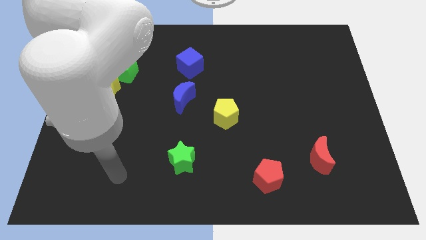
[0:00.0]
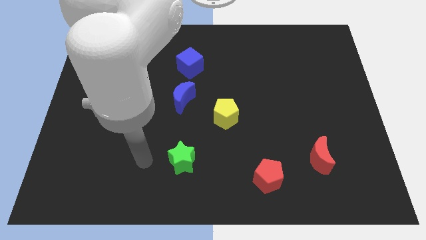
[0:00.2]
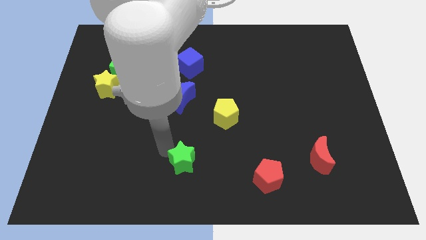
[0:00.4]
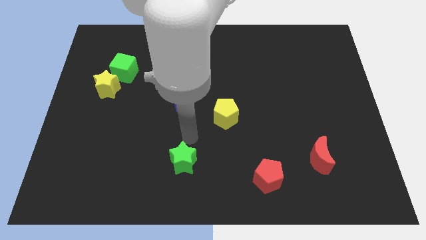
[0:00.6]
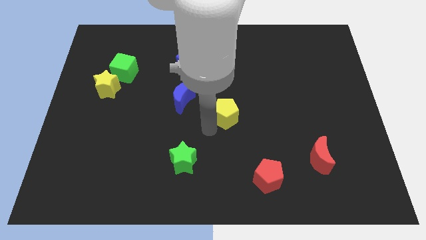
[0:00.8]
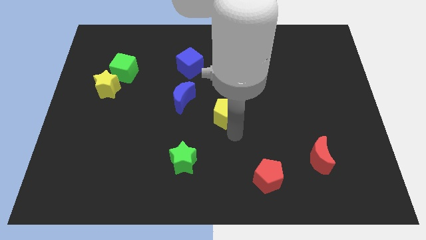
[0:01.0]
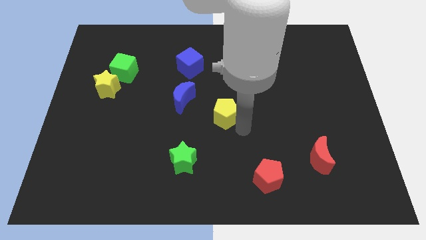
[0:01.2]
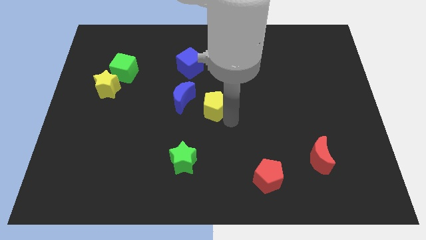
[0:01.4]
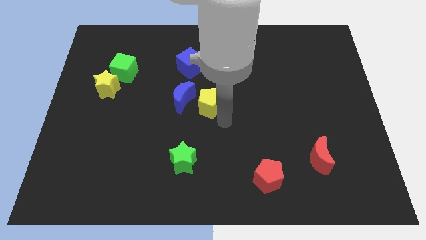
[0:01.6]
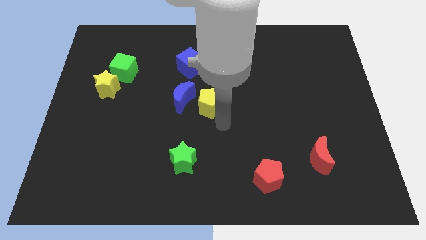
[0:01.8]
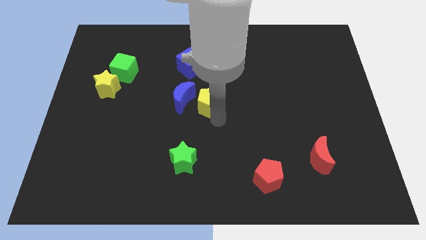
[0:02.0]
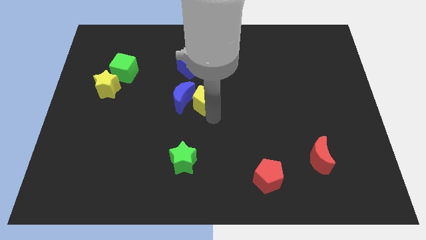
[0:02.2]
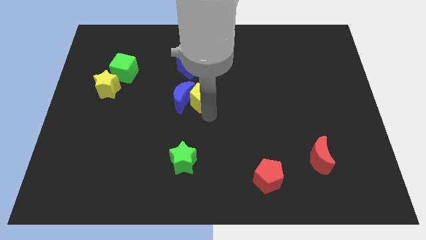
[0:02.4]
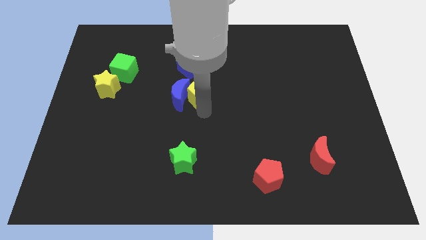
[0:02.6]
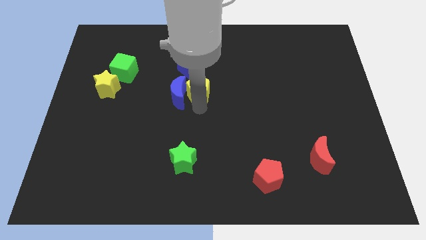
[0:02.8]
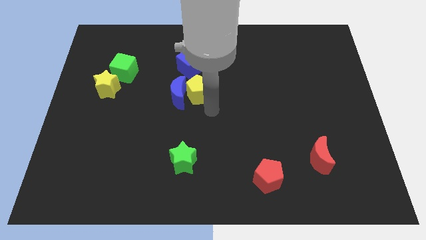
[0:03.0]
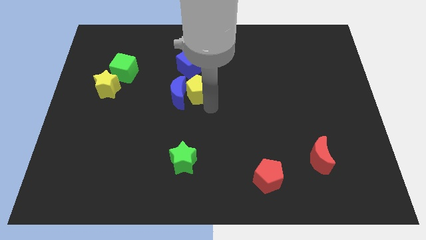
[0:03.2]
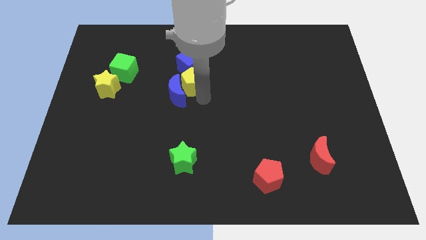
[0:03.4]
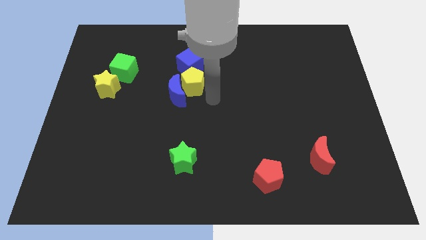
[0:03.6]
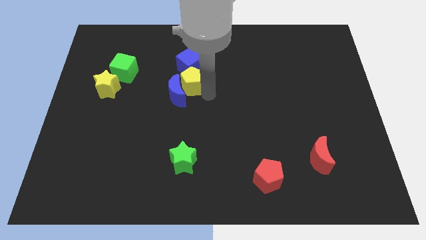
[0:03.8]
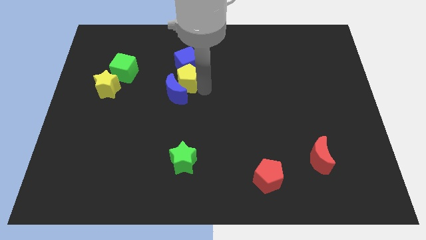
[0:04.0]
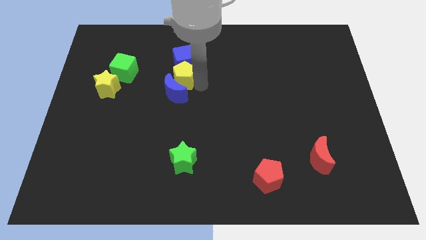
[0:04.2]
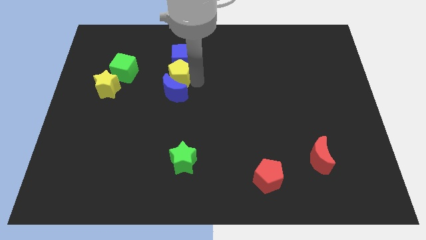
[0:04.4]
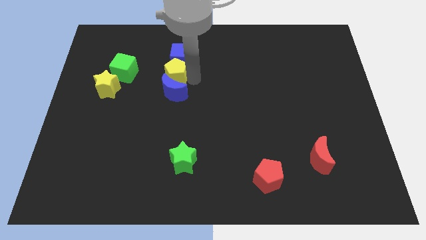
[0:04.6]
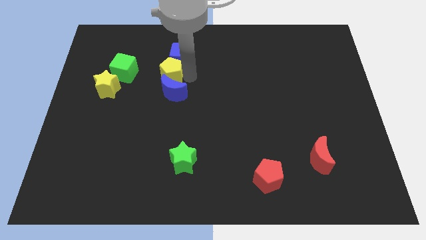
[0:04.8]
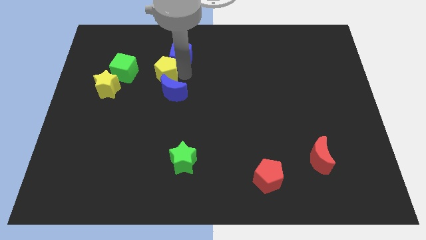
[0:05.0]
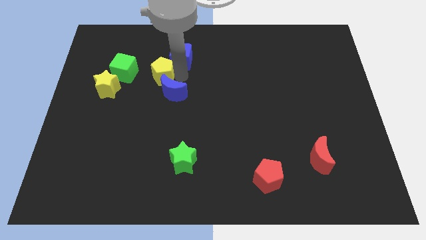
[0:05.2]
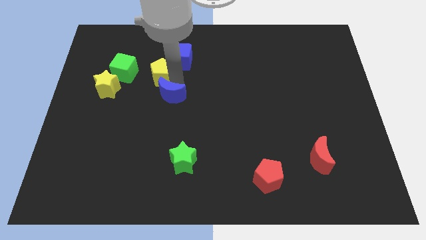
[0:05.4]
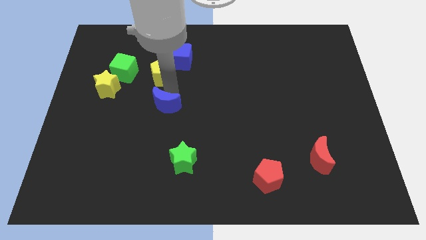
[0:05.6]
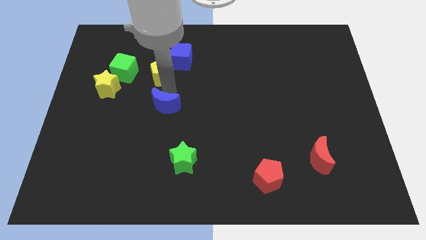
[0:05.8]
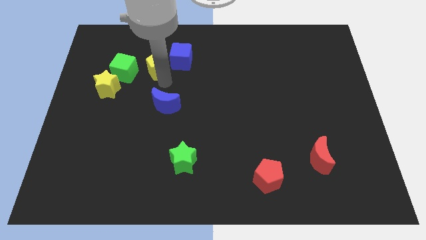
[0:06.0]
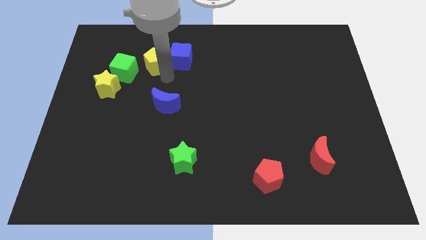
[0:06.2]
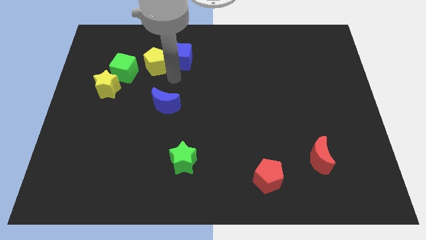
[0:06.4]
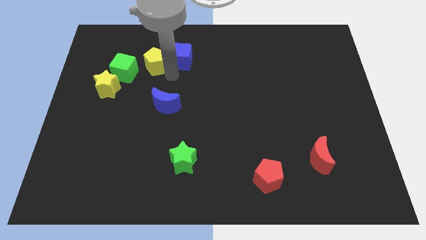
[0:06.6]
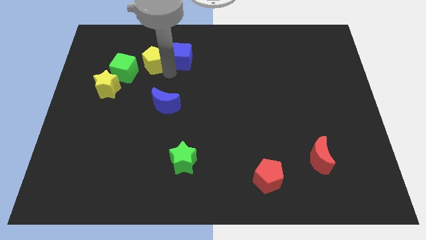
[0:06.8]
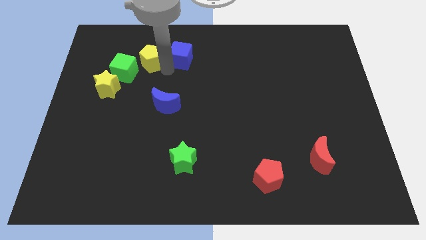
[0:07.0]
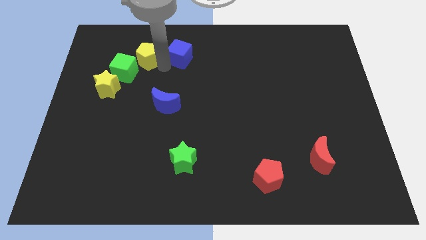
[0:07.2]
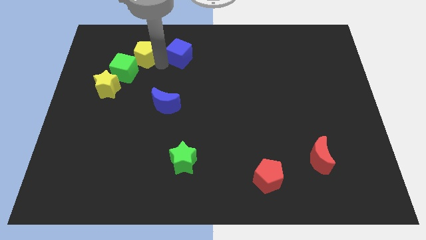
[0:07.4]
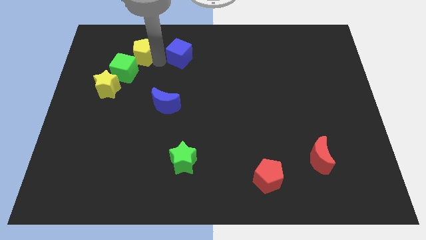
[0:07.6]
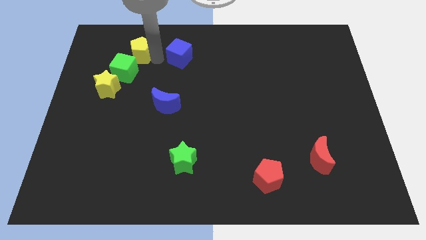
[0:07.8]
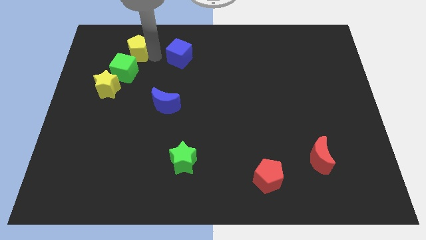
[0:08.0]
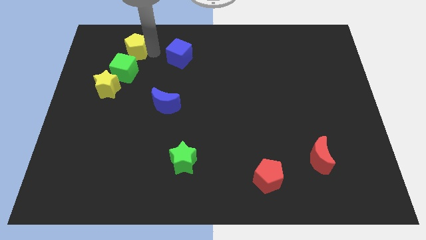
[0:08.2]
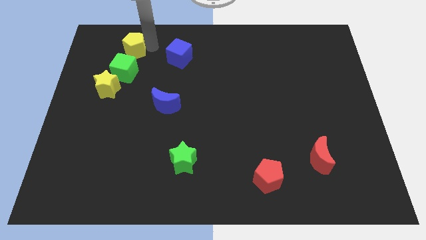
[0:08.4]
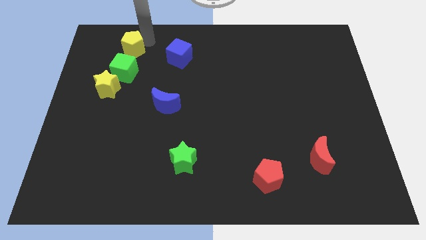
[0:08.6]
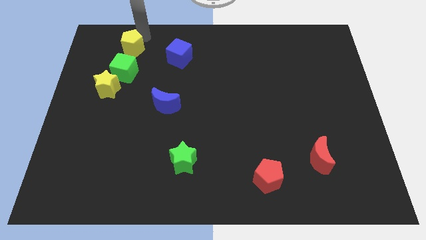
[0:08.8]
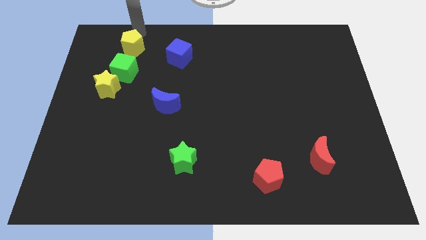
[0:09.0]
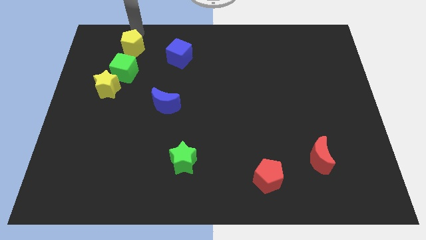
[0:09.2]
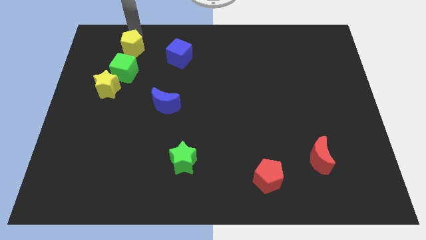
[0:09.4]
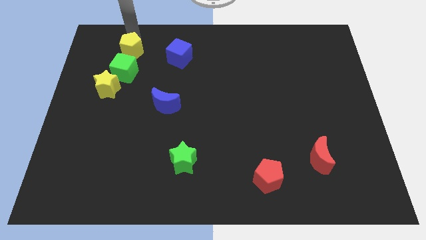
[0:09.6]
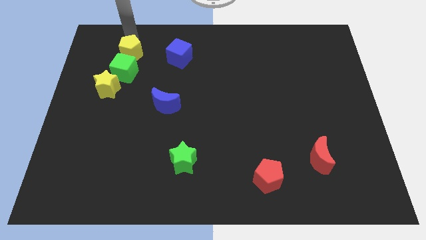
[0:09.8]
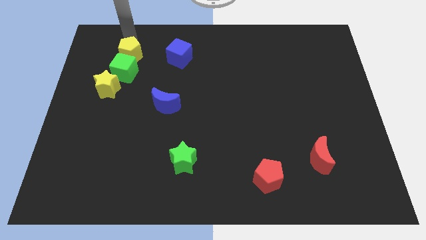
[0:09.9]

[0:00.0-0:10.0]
put the yellow pentagon to the top left side of the green cube

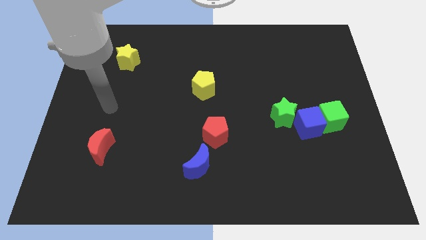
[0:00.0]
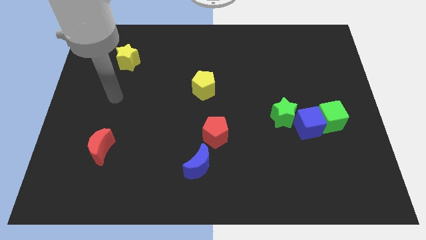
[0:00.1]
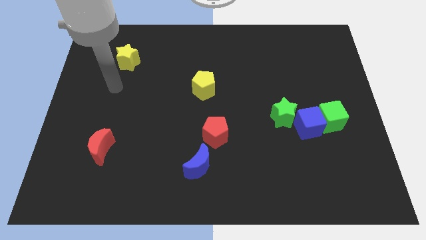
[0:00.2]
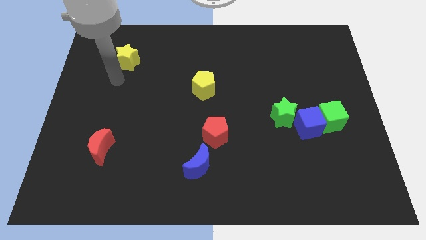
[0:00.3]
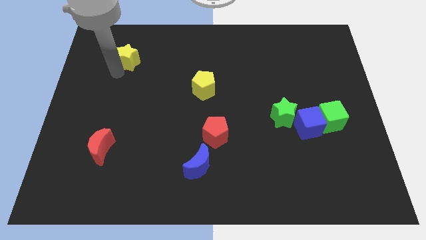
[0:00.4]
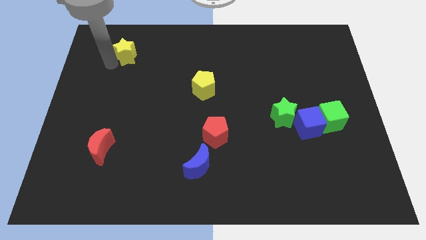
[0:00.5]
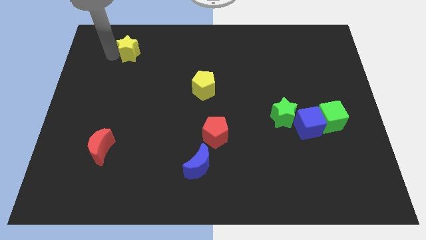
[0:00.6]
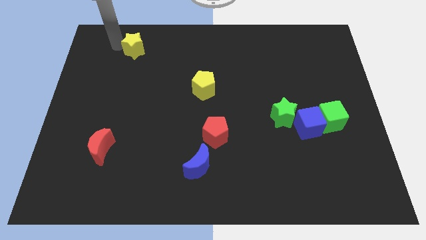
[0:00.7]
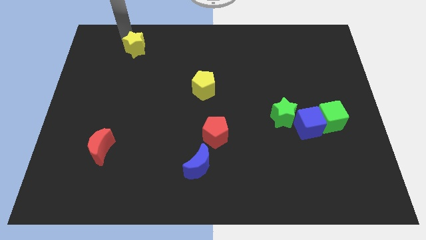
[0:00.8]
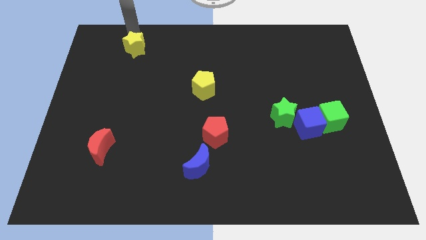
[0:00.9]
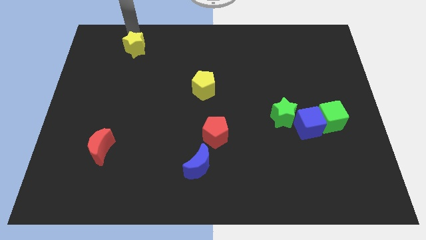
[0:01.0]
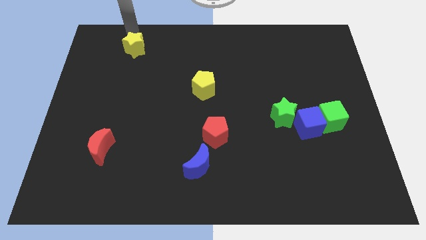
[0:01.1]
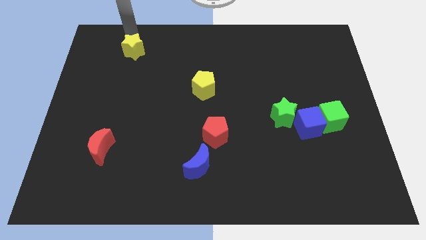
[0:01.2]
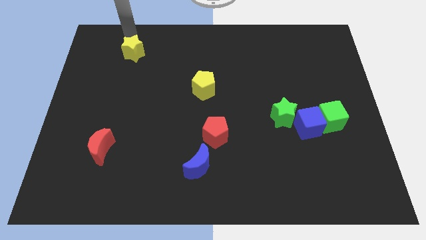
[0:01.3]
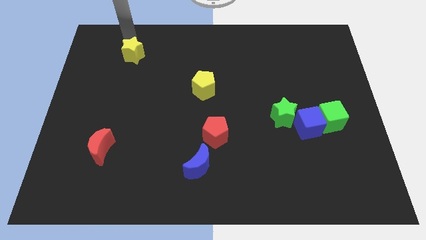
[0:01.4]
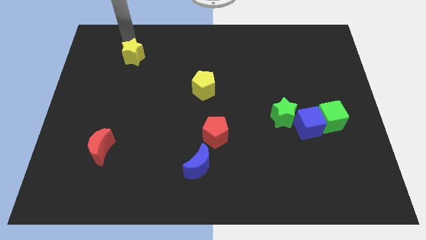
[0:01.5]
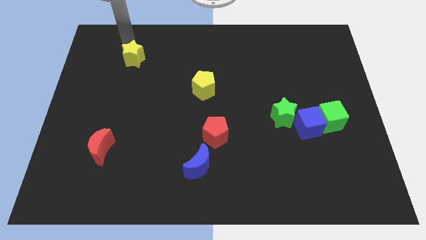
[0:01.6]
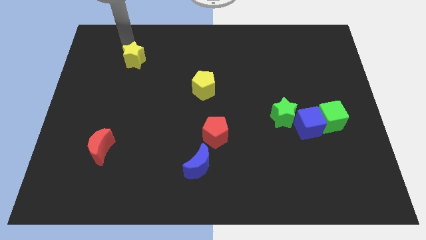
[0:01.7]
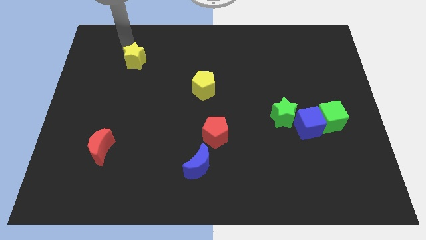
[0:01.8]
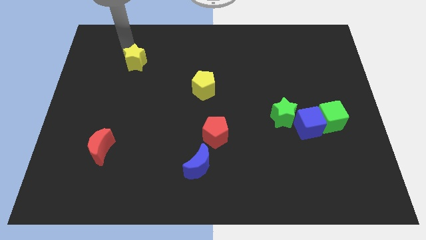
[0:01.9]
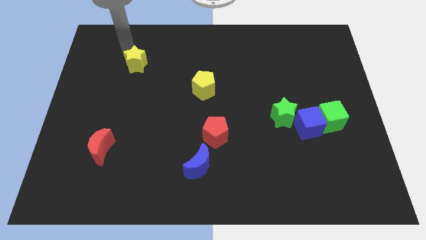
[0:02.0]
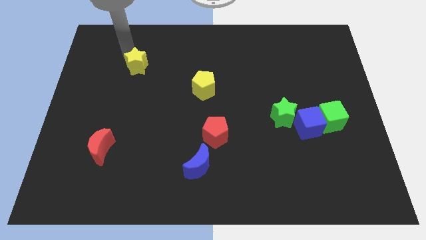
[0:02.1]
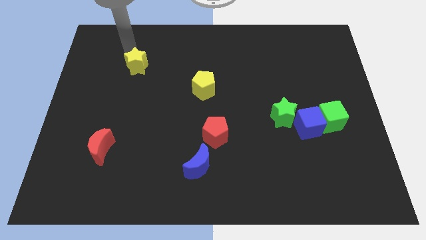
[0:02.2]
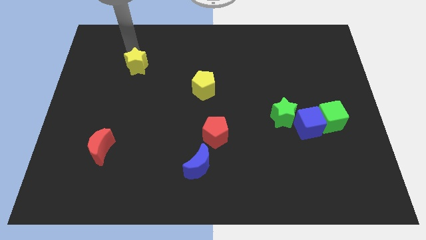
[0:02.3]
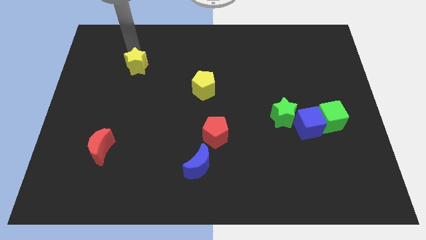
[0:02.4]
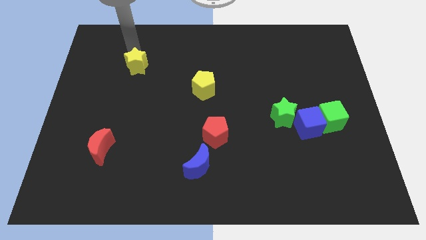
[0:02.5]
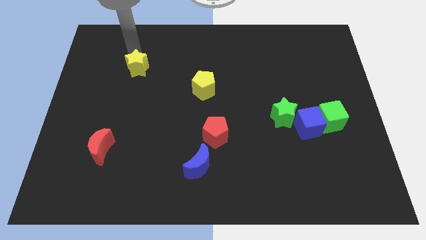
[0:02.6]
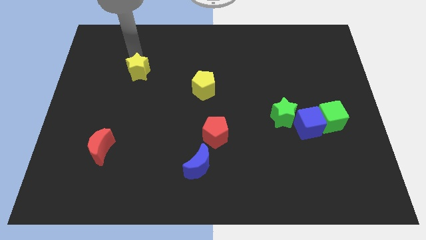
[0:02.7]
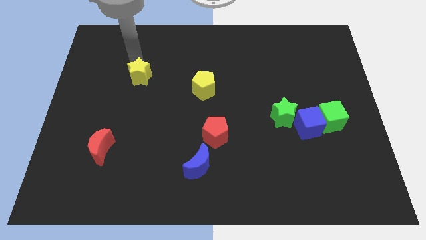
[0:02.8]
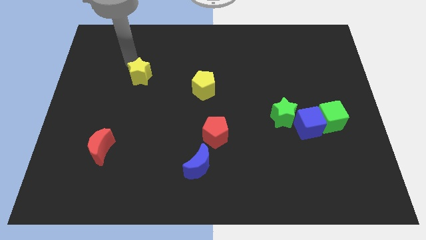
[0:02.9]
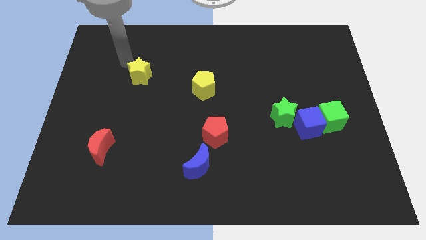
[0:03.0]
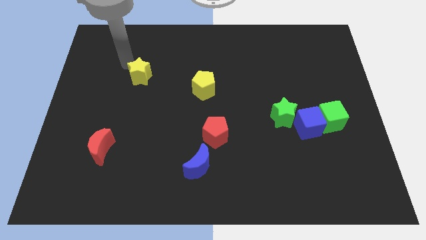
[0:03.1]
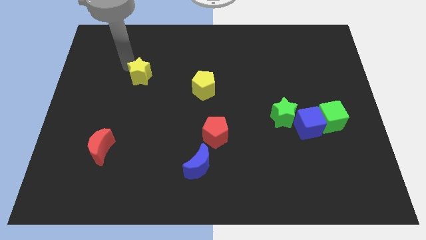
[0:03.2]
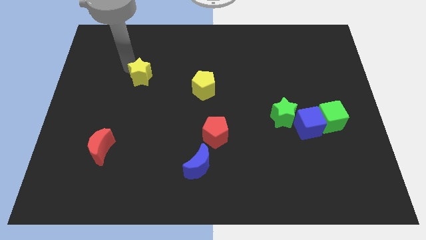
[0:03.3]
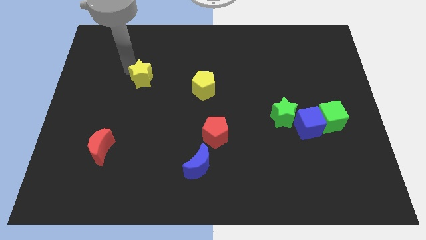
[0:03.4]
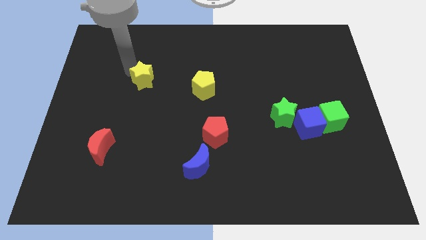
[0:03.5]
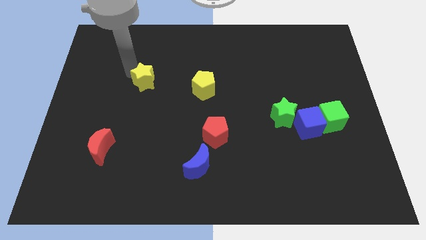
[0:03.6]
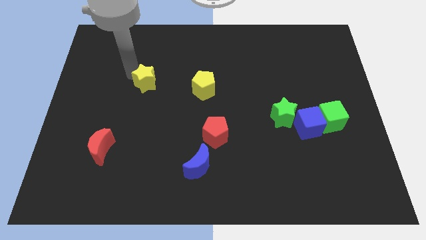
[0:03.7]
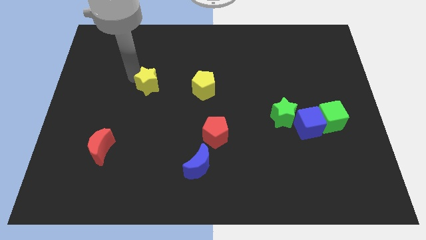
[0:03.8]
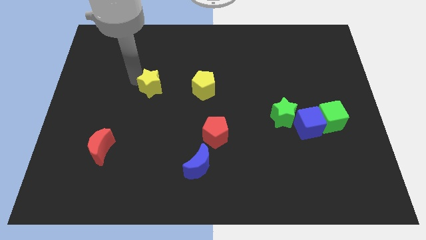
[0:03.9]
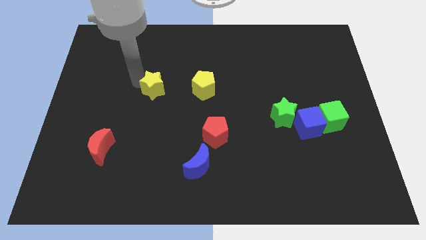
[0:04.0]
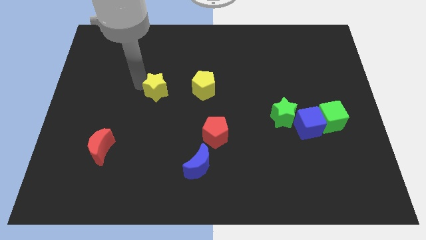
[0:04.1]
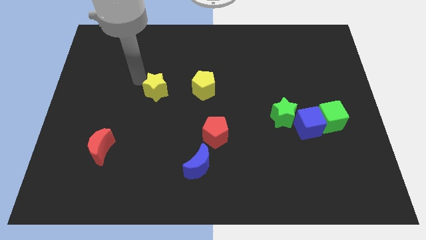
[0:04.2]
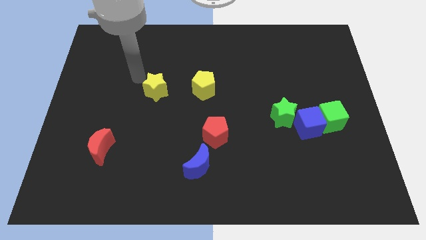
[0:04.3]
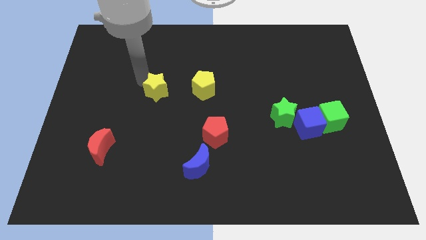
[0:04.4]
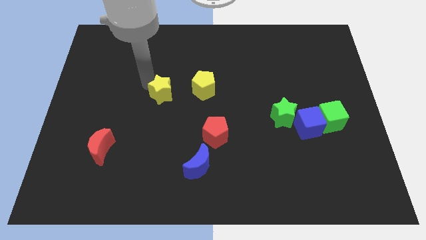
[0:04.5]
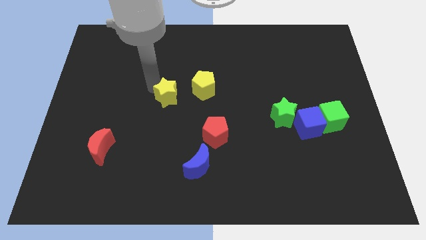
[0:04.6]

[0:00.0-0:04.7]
slide the yellow star to the bottom left side of the yellow pentagon
